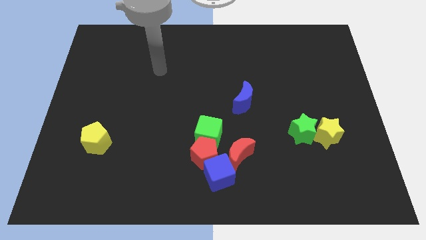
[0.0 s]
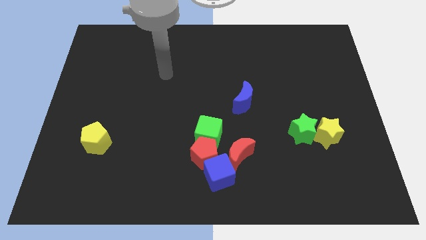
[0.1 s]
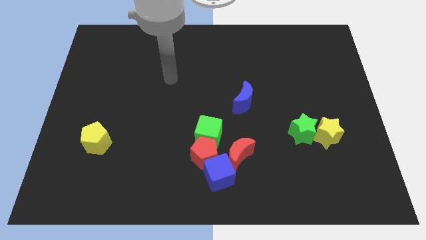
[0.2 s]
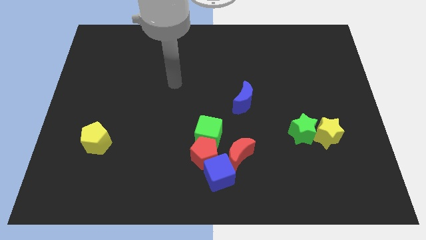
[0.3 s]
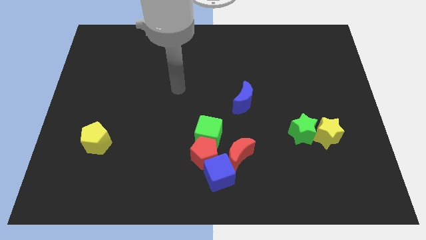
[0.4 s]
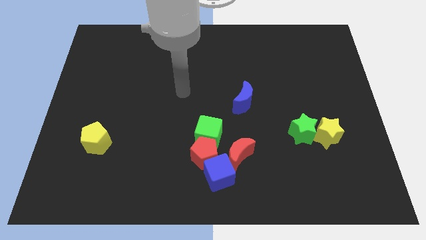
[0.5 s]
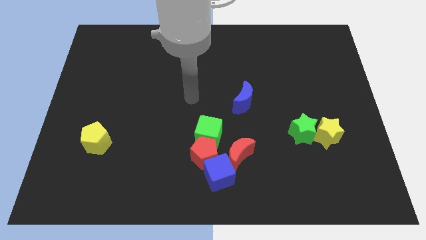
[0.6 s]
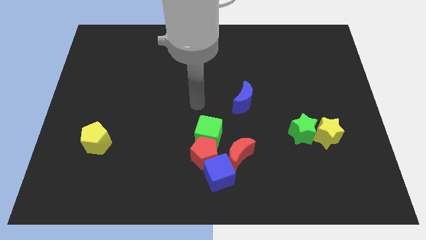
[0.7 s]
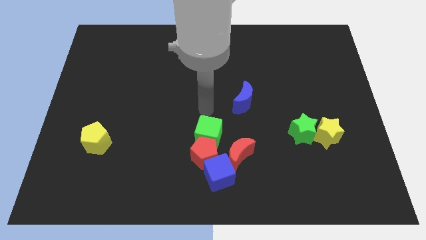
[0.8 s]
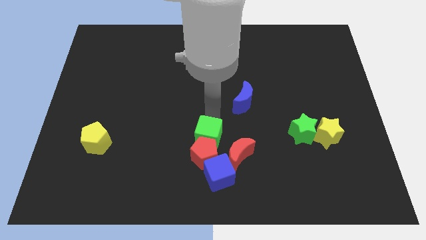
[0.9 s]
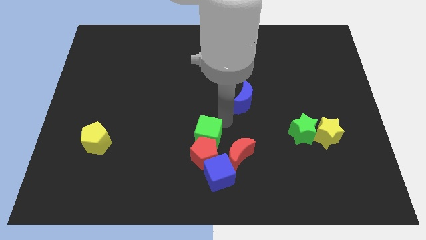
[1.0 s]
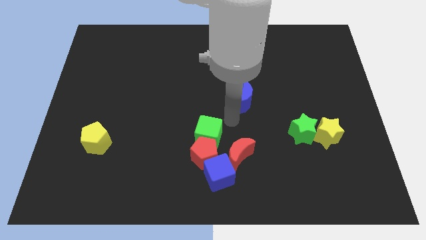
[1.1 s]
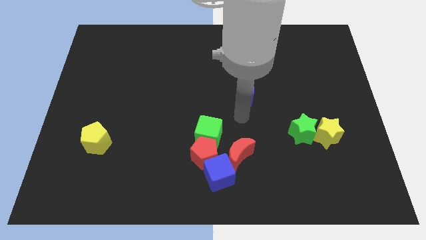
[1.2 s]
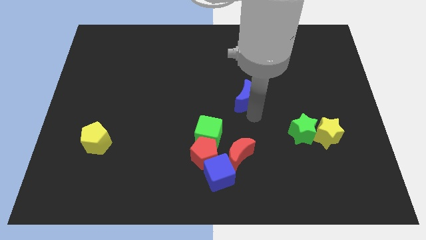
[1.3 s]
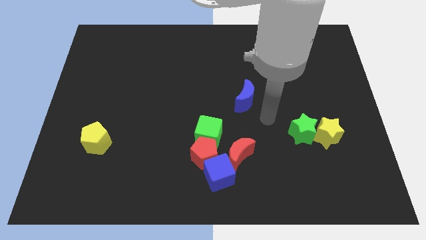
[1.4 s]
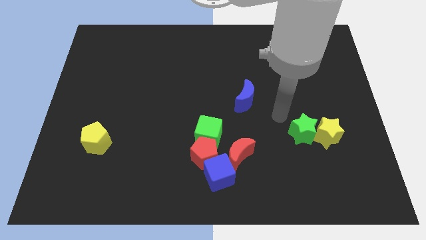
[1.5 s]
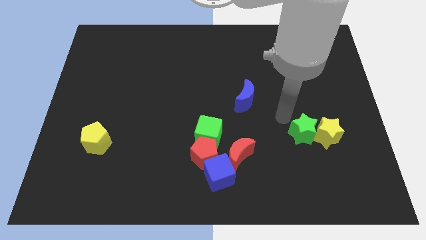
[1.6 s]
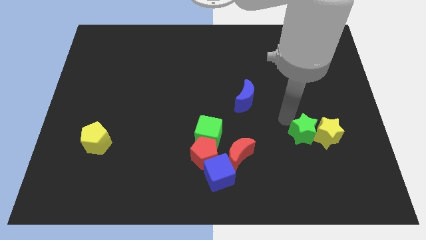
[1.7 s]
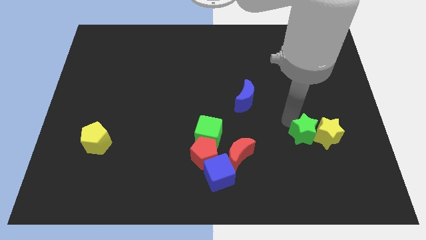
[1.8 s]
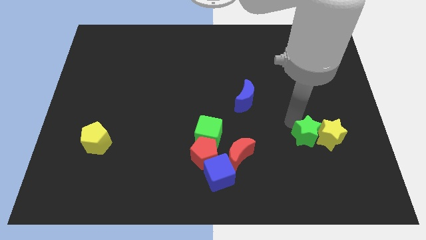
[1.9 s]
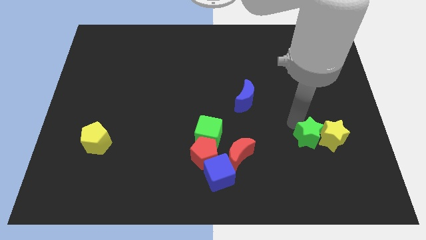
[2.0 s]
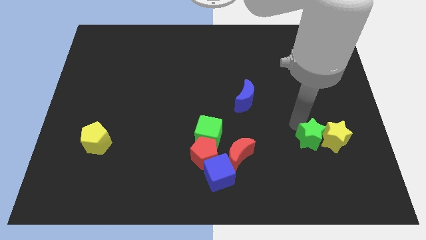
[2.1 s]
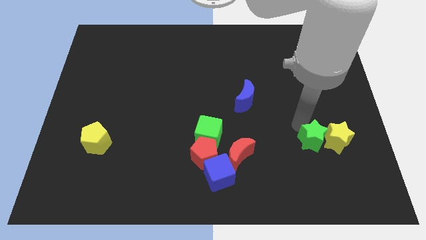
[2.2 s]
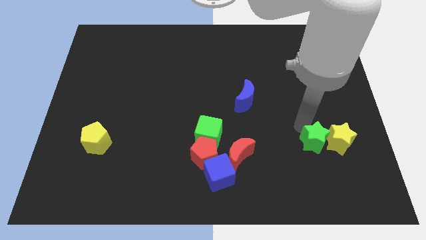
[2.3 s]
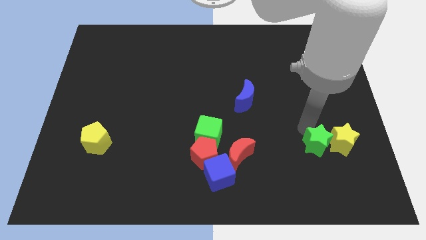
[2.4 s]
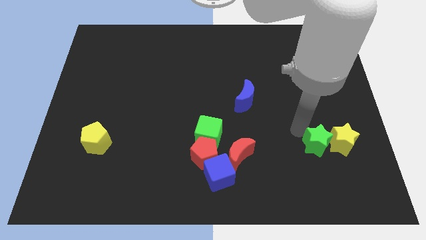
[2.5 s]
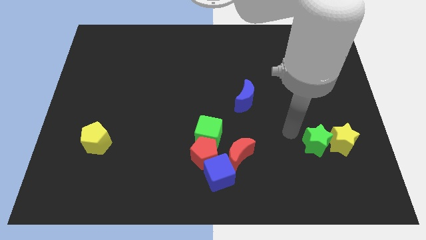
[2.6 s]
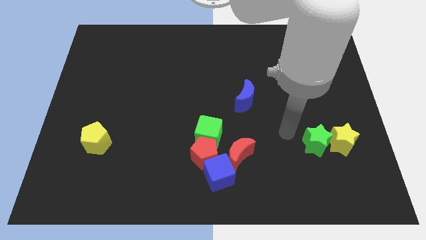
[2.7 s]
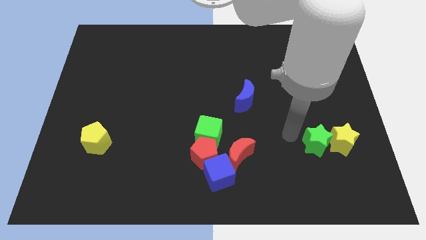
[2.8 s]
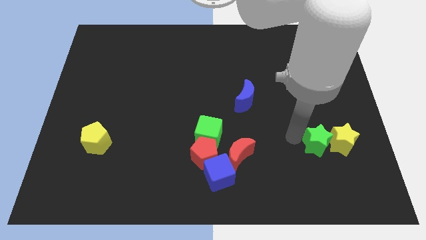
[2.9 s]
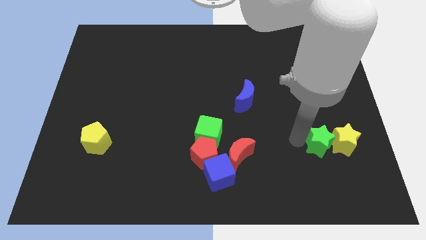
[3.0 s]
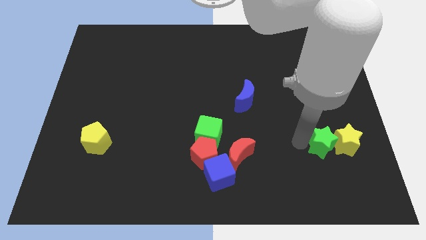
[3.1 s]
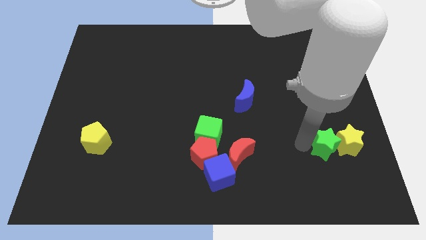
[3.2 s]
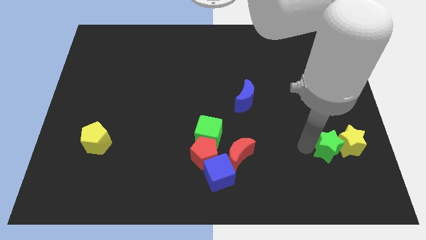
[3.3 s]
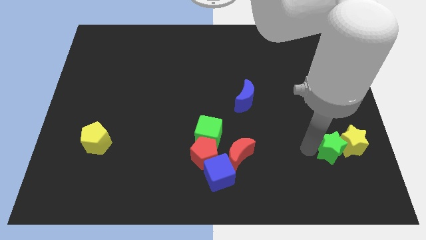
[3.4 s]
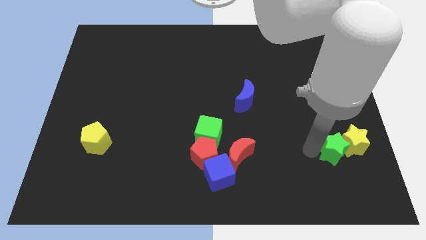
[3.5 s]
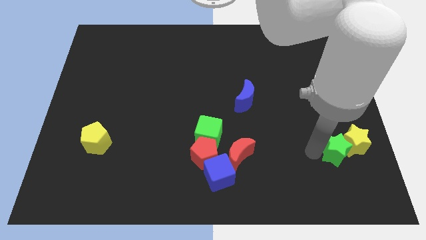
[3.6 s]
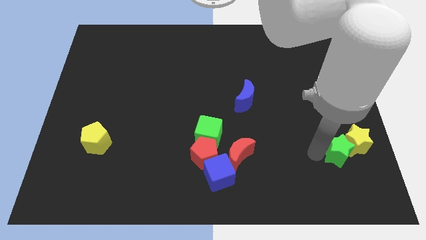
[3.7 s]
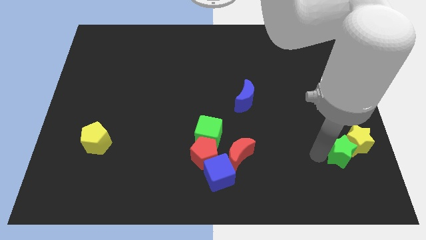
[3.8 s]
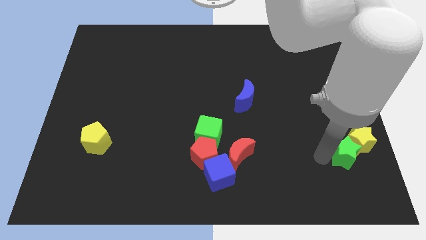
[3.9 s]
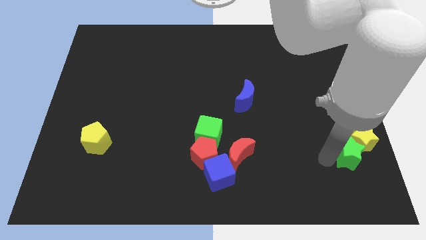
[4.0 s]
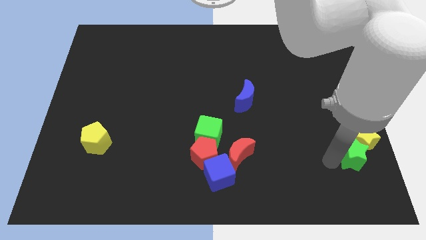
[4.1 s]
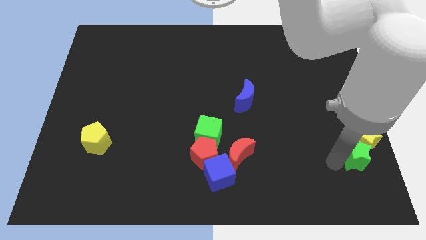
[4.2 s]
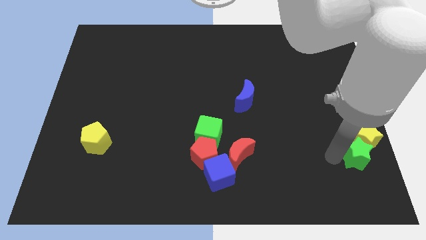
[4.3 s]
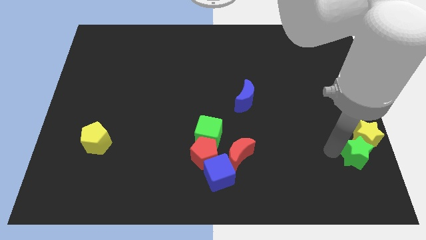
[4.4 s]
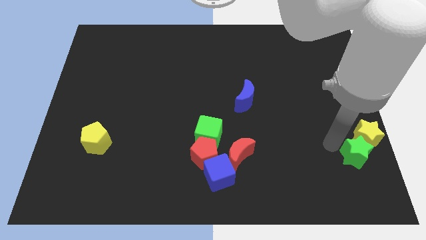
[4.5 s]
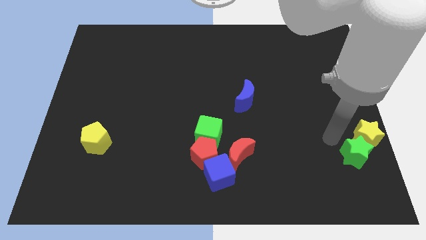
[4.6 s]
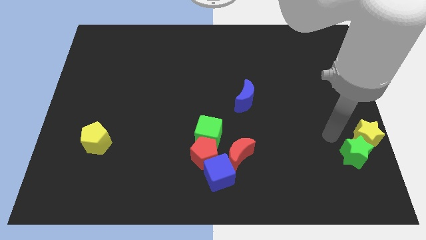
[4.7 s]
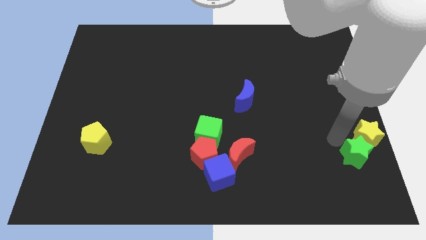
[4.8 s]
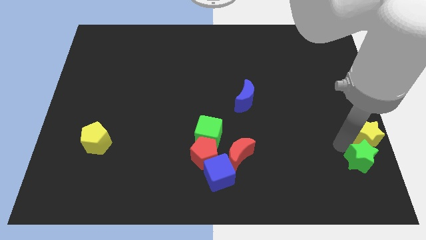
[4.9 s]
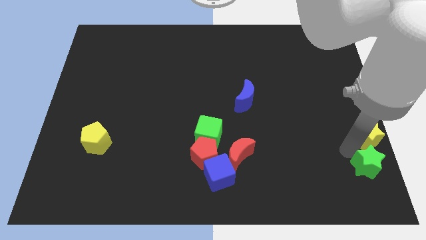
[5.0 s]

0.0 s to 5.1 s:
slide the green star to the lower right corner

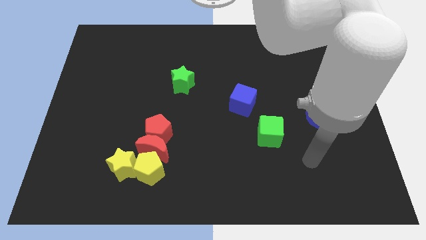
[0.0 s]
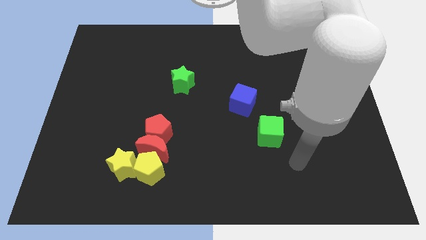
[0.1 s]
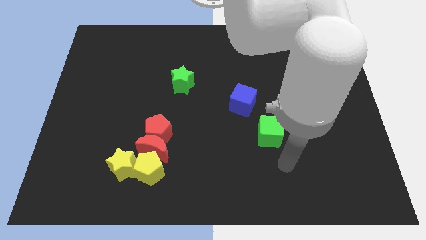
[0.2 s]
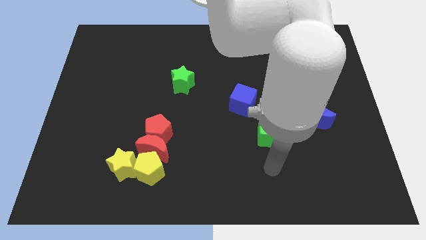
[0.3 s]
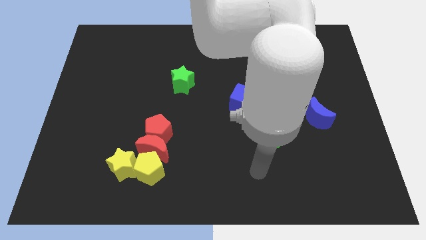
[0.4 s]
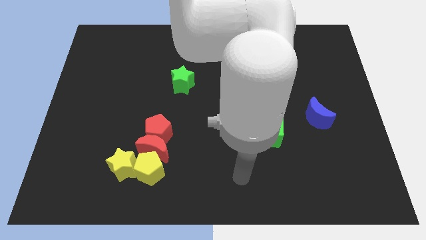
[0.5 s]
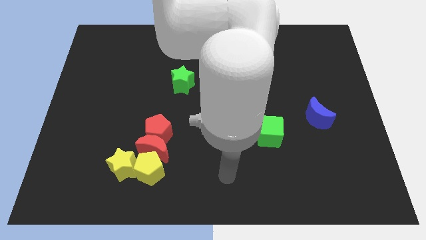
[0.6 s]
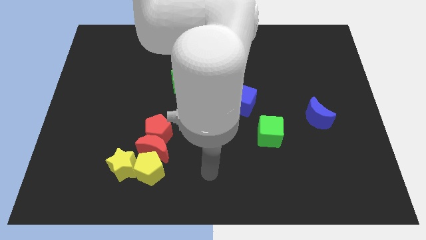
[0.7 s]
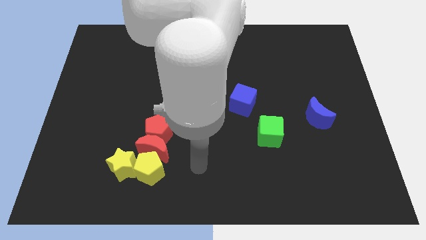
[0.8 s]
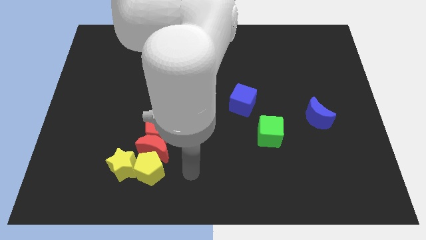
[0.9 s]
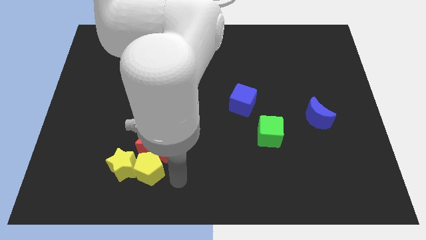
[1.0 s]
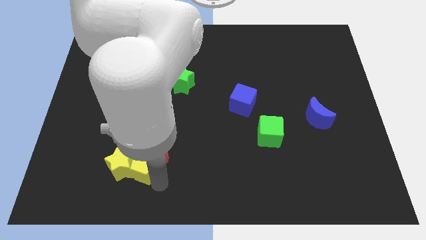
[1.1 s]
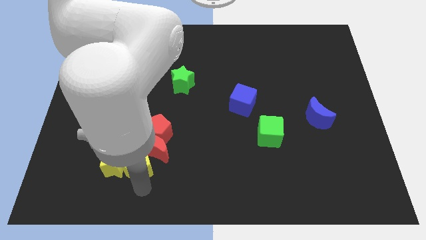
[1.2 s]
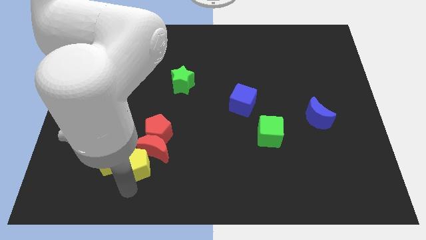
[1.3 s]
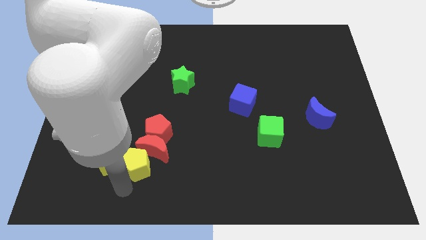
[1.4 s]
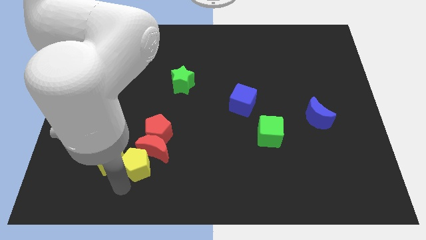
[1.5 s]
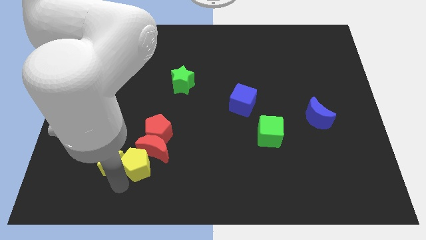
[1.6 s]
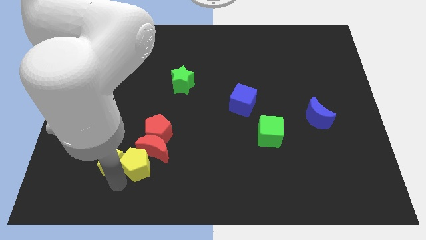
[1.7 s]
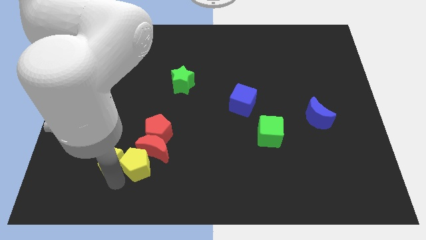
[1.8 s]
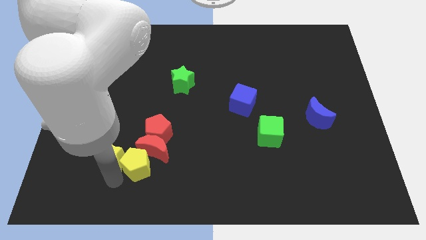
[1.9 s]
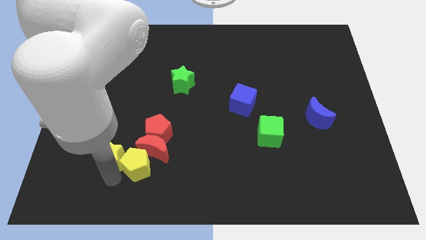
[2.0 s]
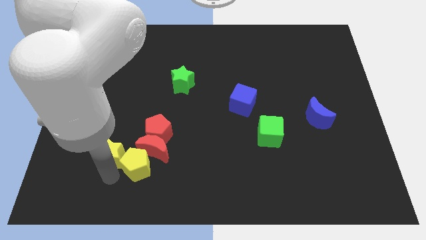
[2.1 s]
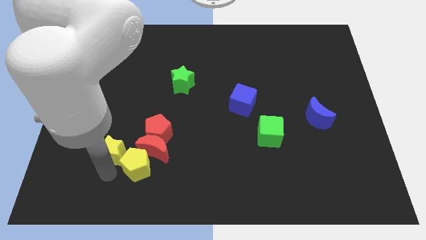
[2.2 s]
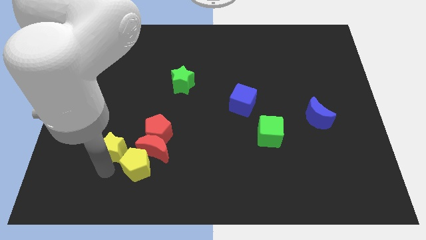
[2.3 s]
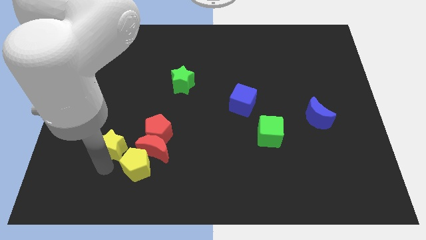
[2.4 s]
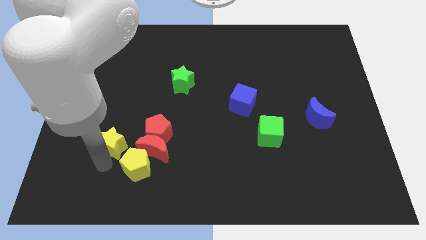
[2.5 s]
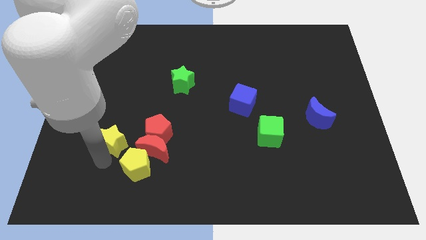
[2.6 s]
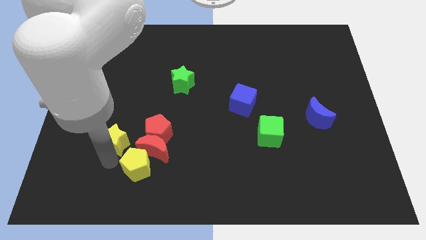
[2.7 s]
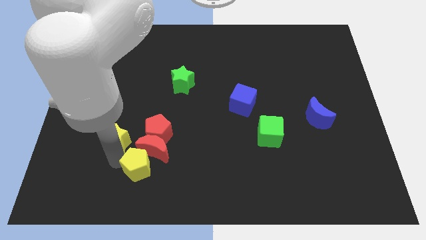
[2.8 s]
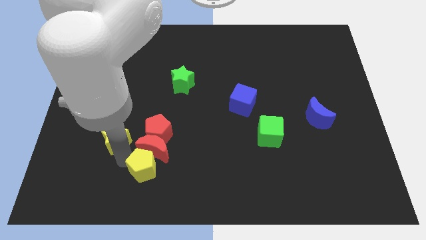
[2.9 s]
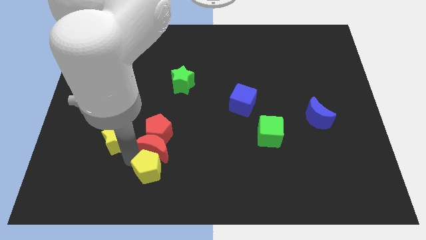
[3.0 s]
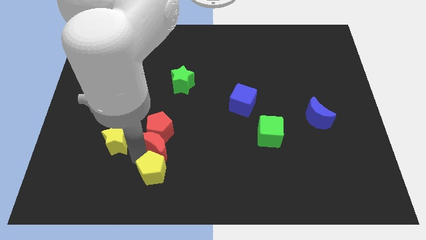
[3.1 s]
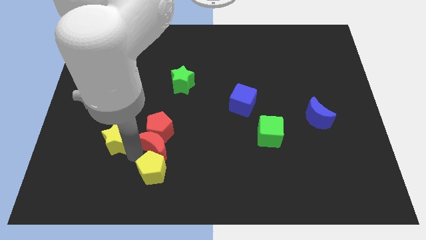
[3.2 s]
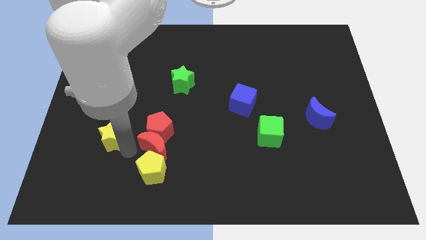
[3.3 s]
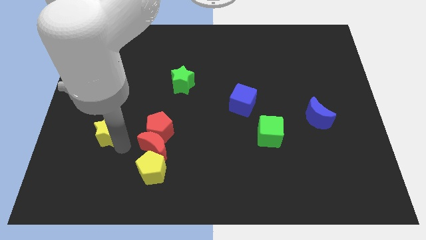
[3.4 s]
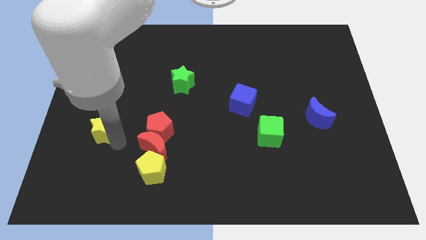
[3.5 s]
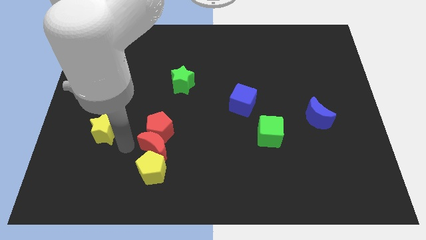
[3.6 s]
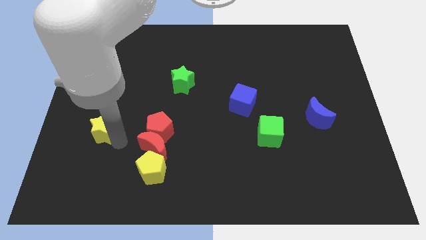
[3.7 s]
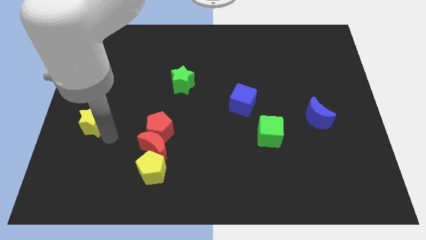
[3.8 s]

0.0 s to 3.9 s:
slide the yellow star to the left side
